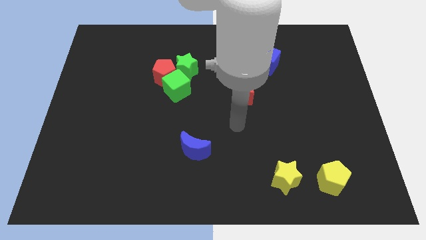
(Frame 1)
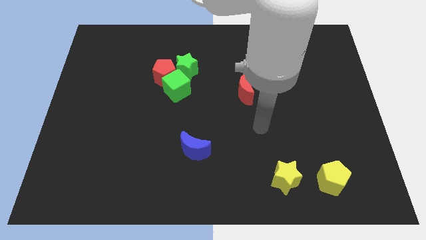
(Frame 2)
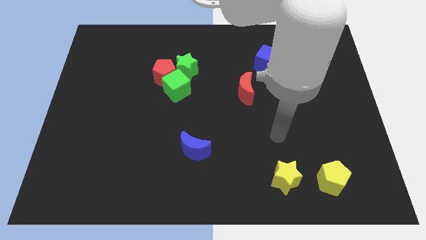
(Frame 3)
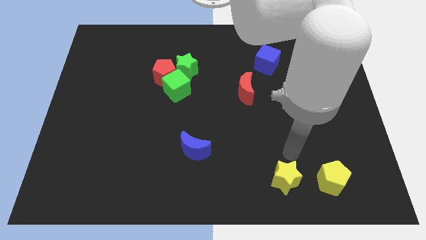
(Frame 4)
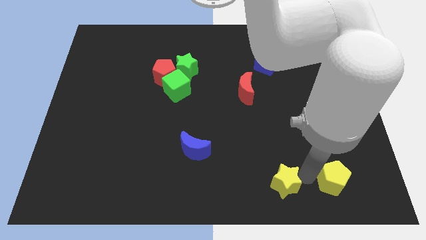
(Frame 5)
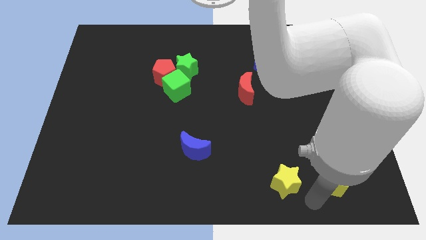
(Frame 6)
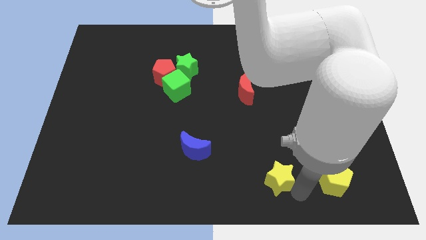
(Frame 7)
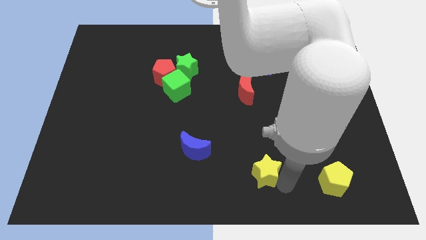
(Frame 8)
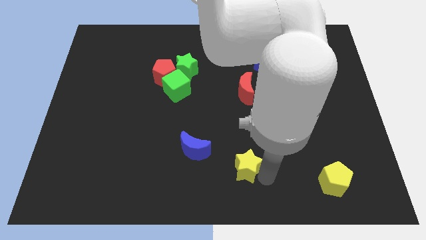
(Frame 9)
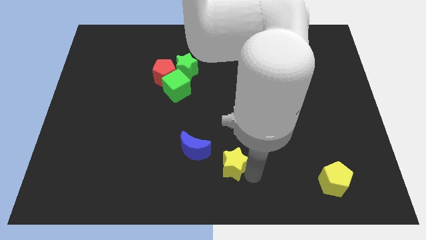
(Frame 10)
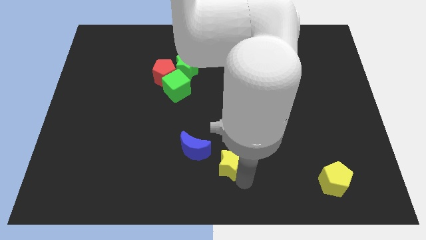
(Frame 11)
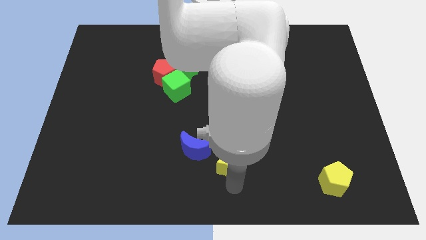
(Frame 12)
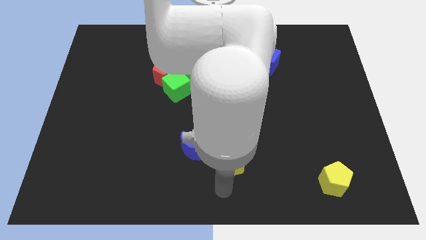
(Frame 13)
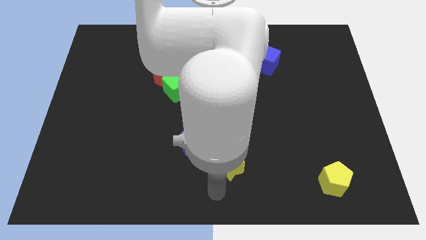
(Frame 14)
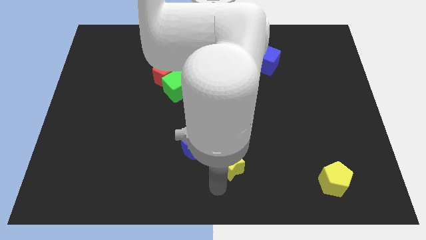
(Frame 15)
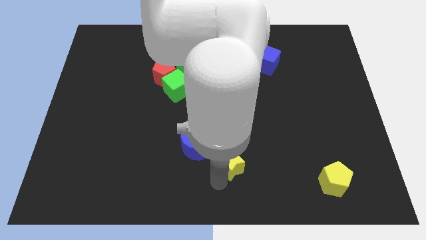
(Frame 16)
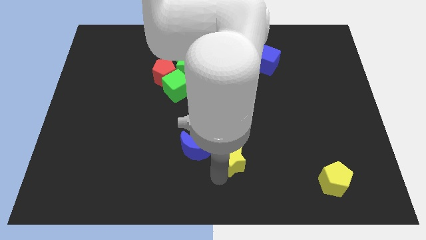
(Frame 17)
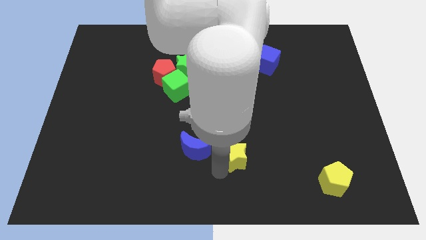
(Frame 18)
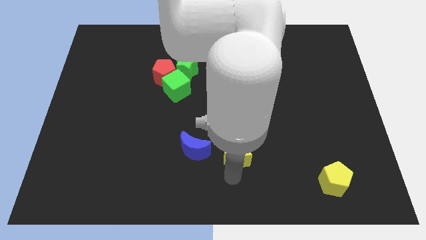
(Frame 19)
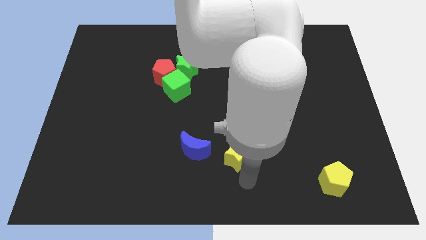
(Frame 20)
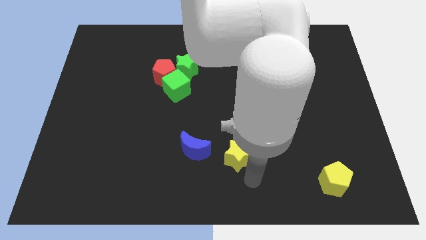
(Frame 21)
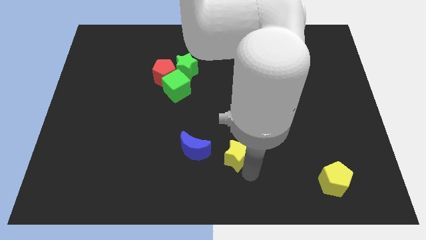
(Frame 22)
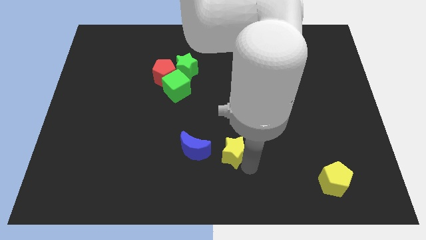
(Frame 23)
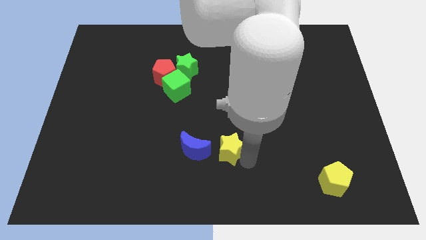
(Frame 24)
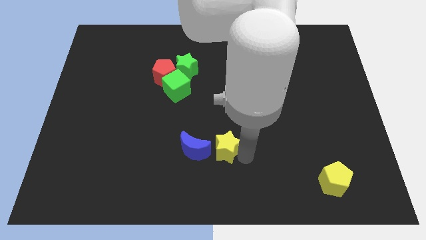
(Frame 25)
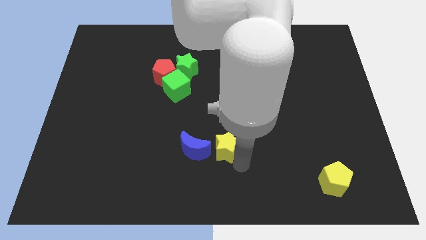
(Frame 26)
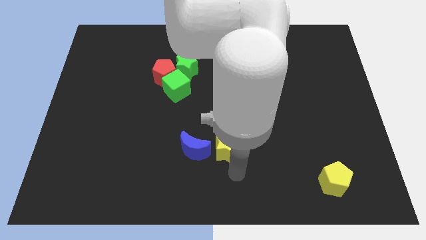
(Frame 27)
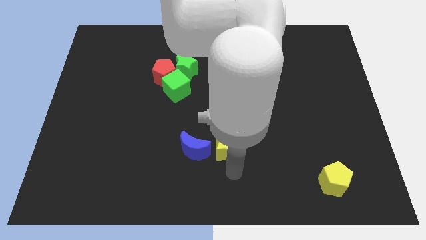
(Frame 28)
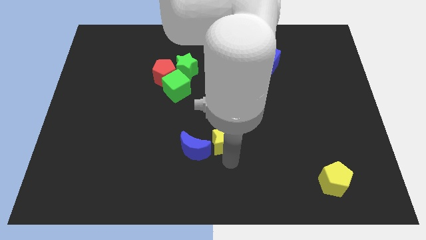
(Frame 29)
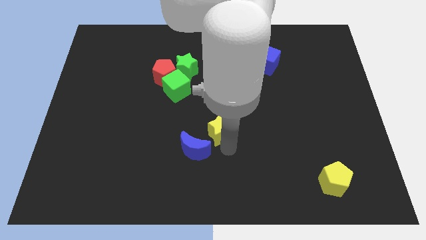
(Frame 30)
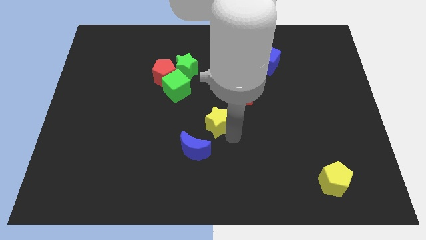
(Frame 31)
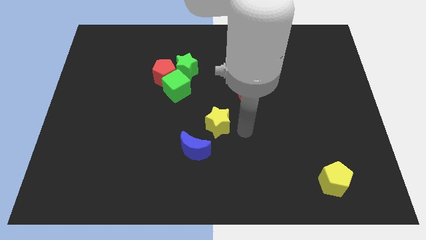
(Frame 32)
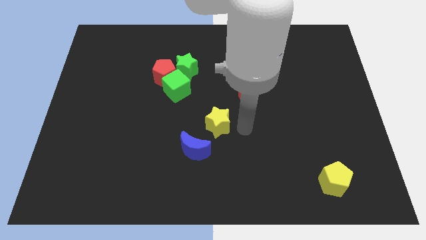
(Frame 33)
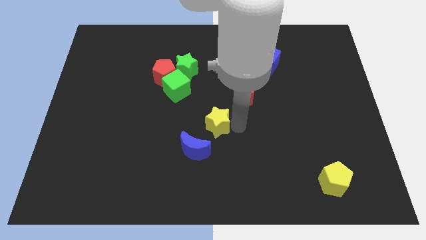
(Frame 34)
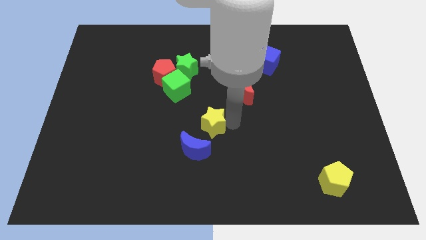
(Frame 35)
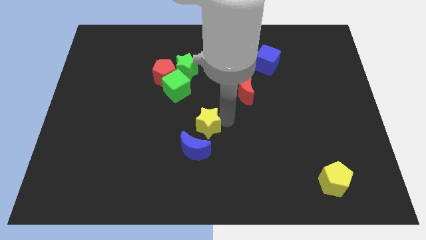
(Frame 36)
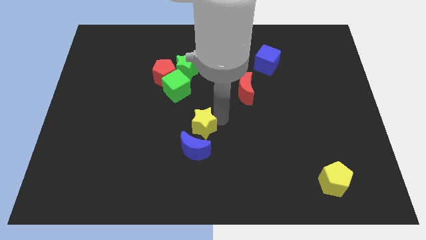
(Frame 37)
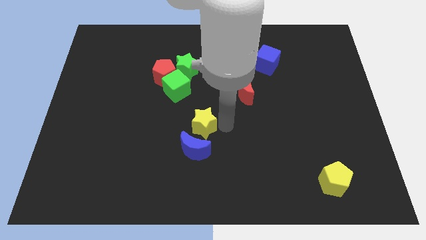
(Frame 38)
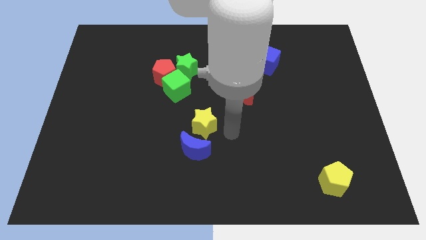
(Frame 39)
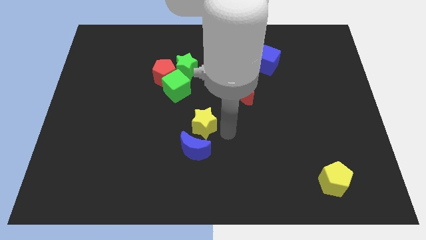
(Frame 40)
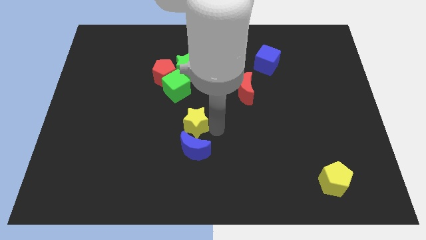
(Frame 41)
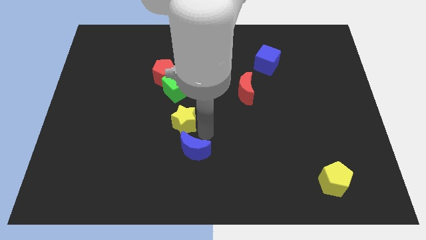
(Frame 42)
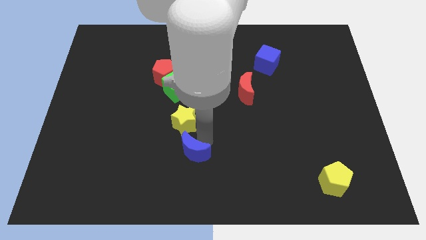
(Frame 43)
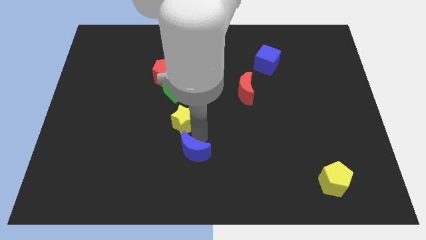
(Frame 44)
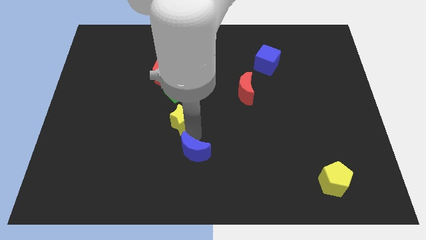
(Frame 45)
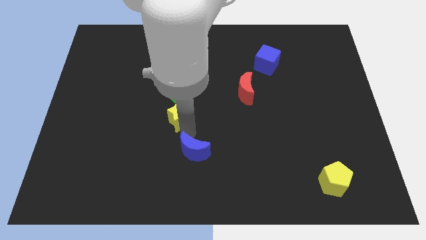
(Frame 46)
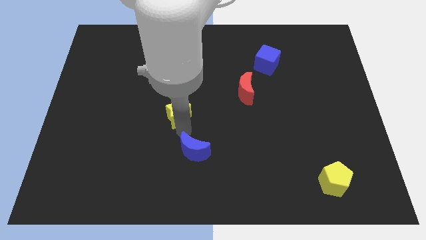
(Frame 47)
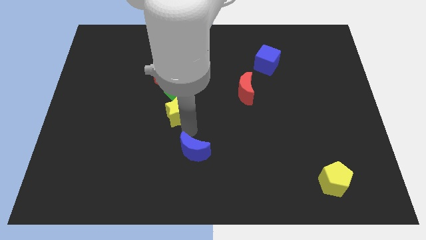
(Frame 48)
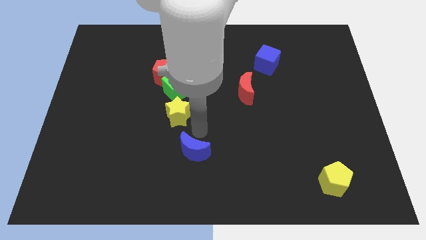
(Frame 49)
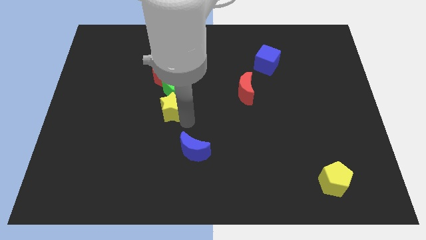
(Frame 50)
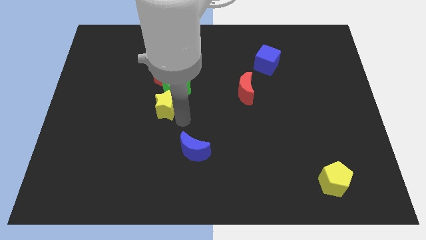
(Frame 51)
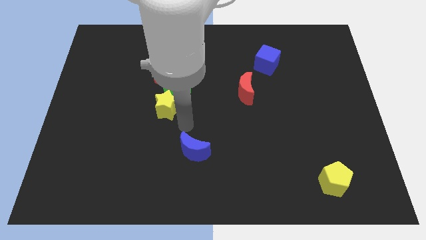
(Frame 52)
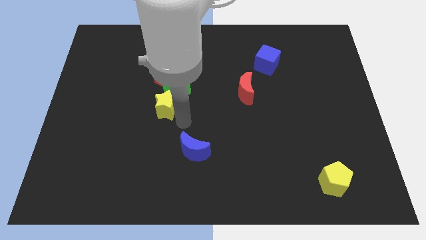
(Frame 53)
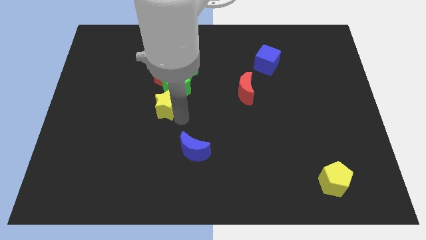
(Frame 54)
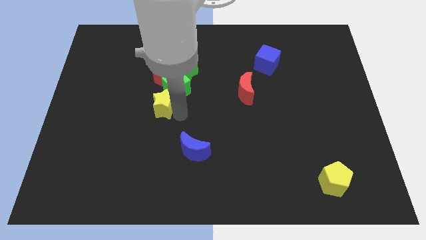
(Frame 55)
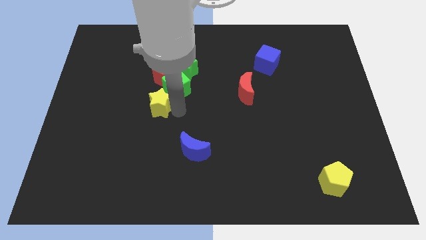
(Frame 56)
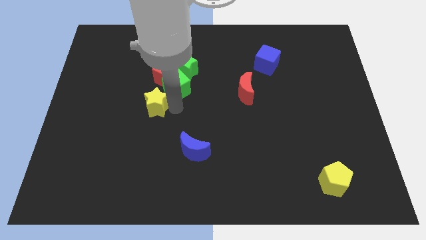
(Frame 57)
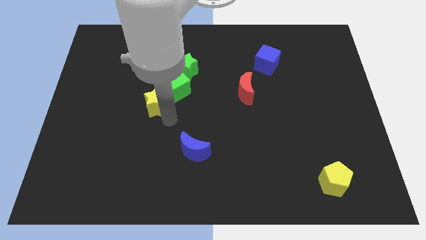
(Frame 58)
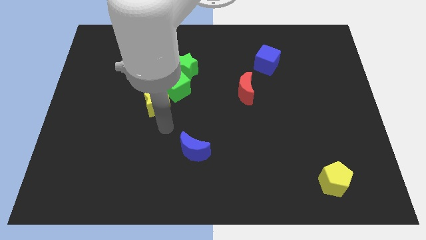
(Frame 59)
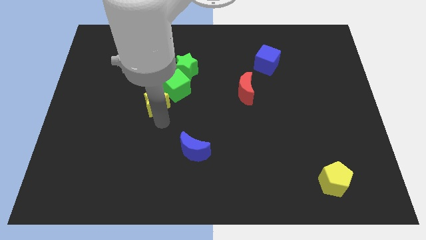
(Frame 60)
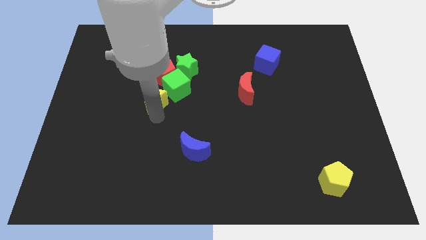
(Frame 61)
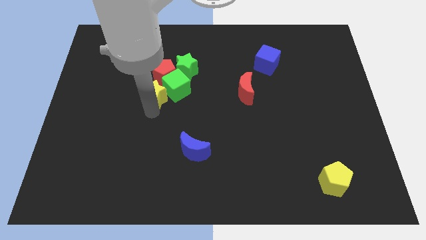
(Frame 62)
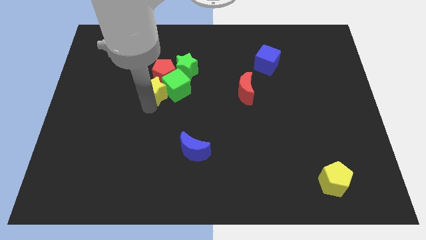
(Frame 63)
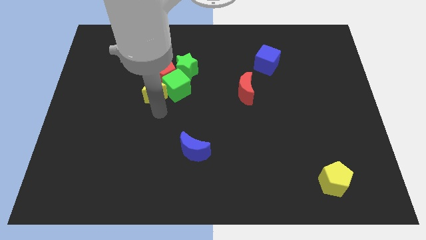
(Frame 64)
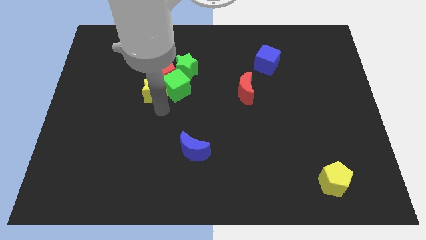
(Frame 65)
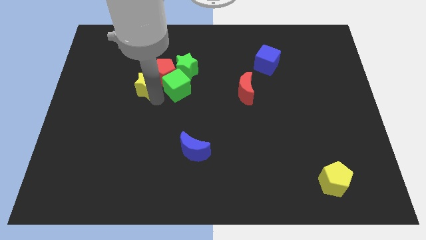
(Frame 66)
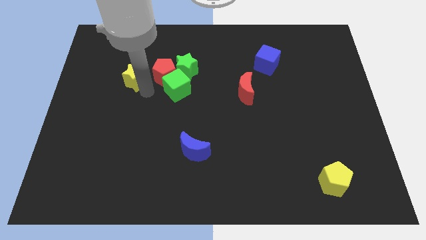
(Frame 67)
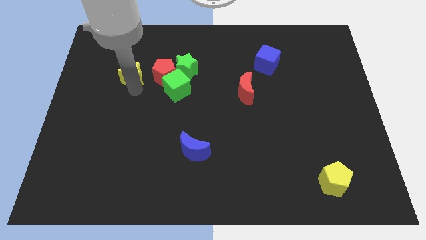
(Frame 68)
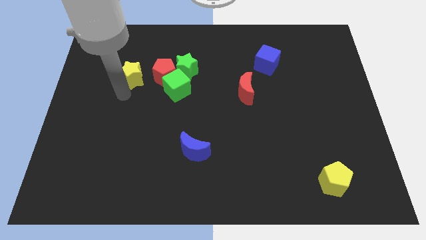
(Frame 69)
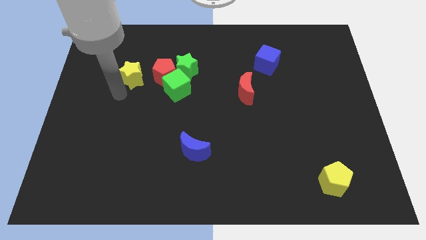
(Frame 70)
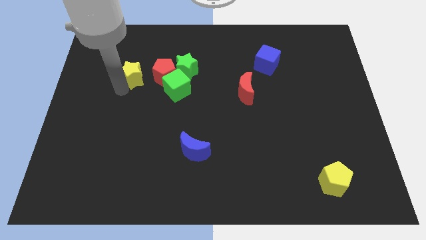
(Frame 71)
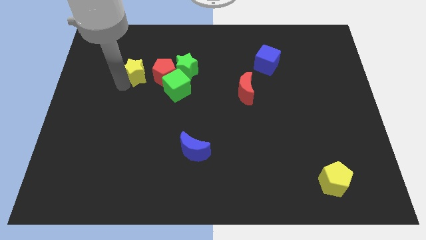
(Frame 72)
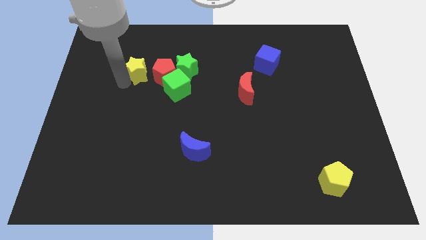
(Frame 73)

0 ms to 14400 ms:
push the yellow star to the top left of the red pentagon
